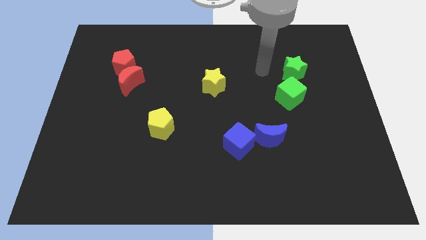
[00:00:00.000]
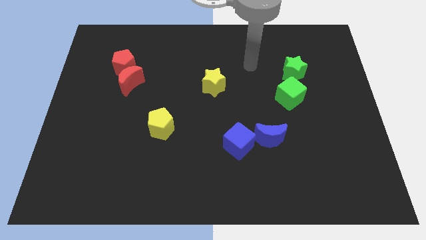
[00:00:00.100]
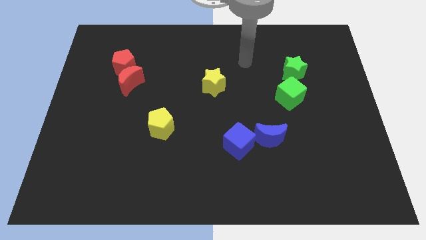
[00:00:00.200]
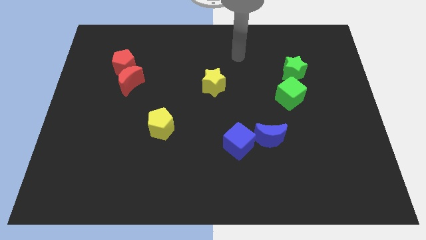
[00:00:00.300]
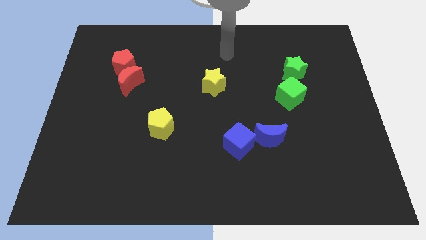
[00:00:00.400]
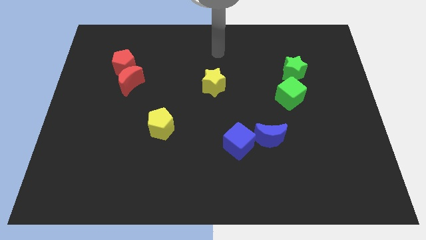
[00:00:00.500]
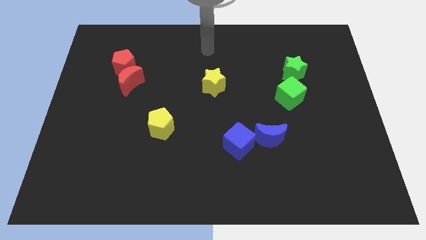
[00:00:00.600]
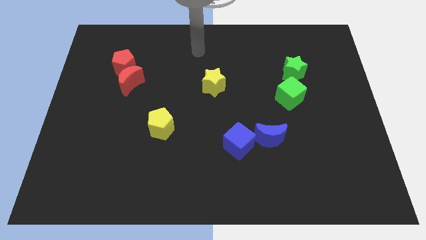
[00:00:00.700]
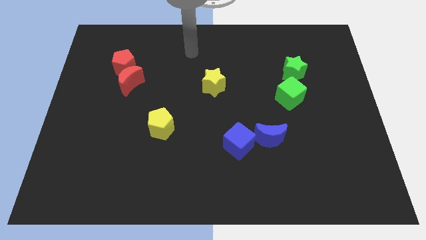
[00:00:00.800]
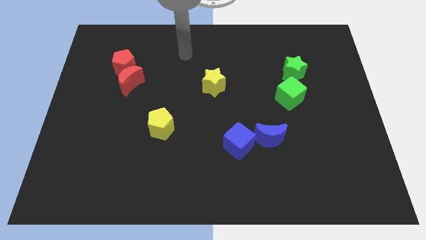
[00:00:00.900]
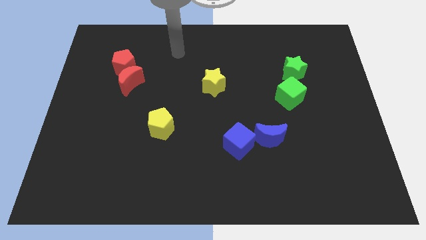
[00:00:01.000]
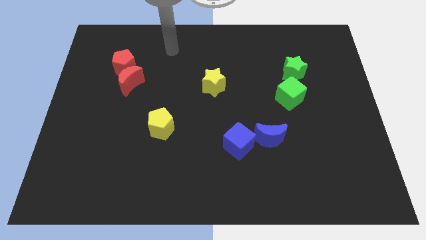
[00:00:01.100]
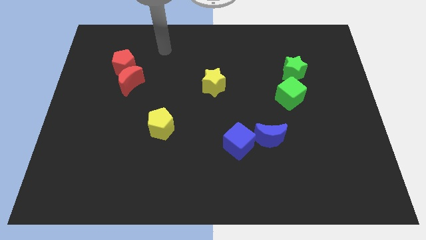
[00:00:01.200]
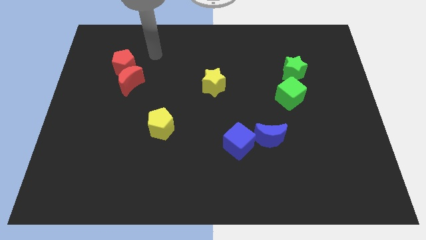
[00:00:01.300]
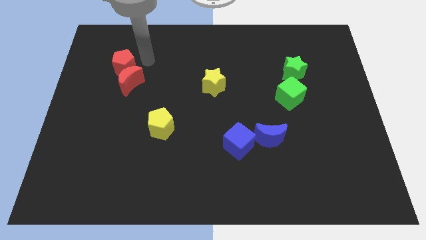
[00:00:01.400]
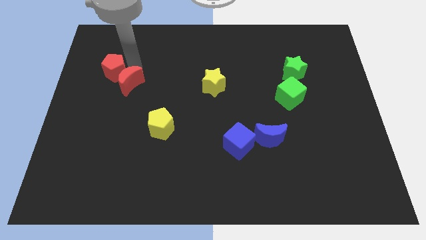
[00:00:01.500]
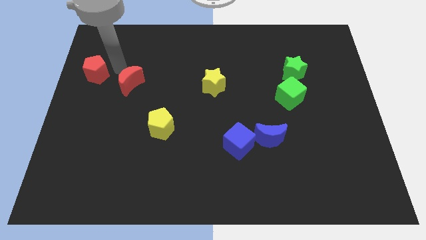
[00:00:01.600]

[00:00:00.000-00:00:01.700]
separate the red moon from the red pentagon

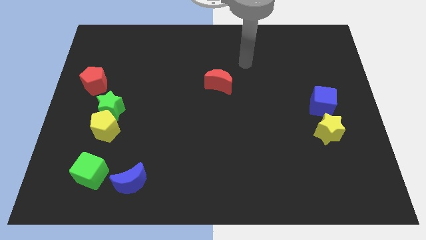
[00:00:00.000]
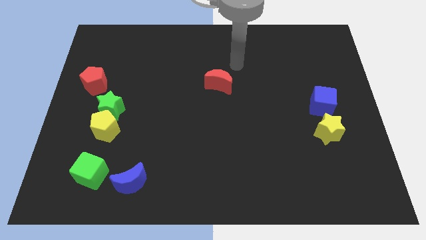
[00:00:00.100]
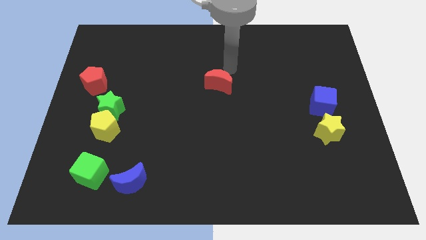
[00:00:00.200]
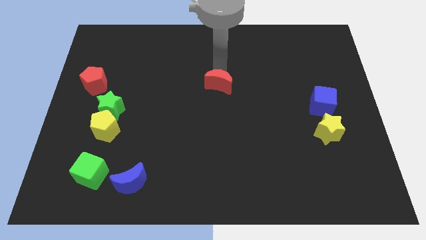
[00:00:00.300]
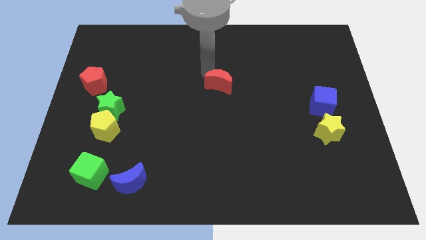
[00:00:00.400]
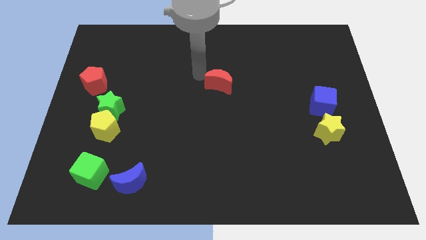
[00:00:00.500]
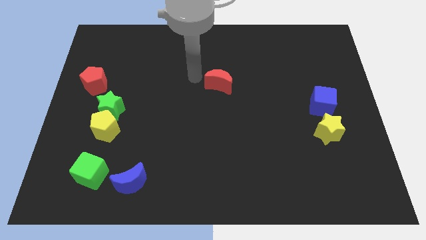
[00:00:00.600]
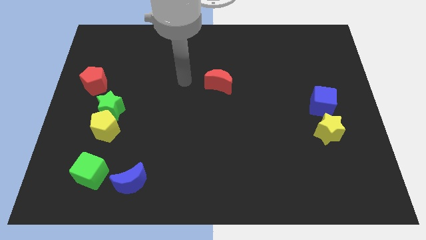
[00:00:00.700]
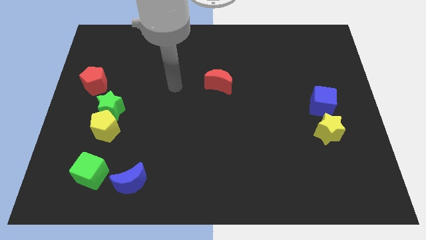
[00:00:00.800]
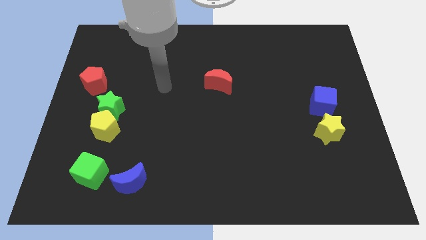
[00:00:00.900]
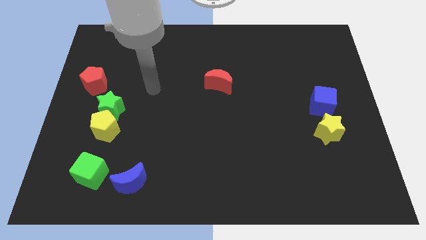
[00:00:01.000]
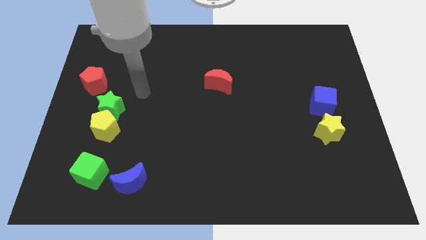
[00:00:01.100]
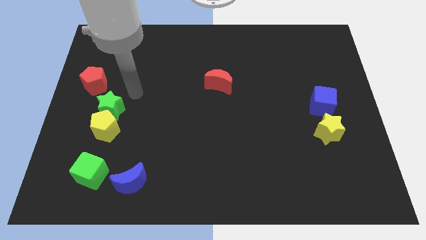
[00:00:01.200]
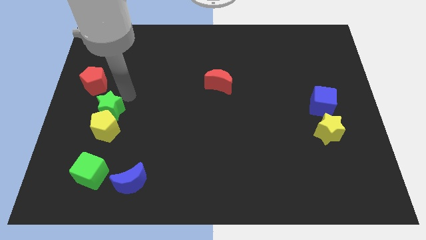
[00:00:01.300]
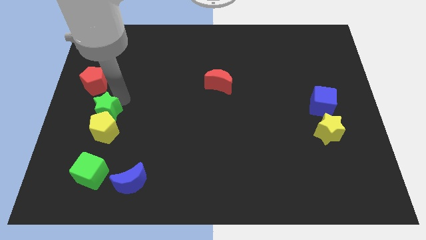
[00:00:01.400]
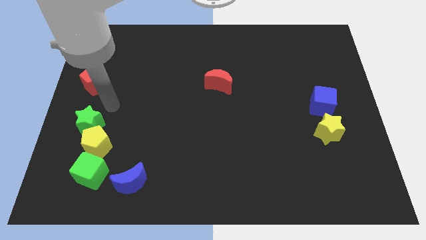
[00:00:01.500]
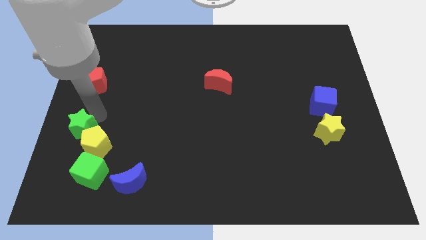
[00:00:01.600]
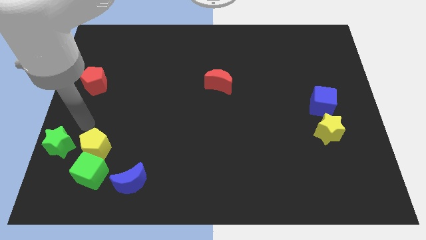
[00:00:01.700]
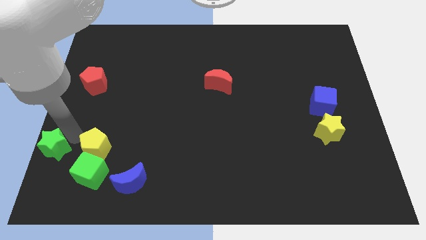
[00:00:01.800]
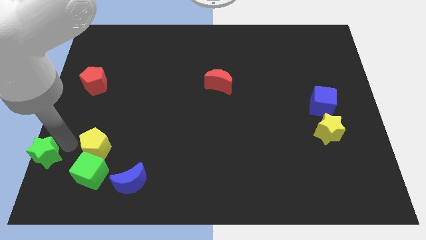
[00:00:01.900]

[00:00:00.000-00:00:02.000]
pull the yellow pentagon apart from the green star

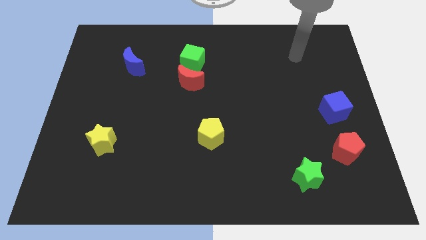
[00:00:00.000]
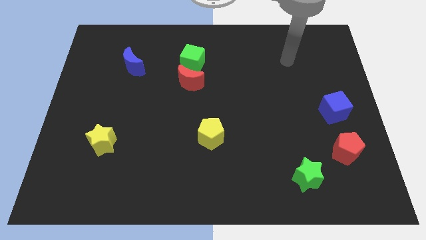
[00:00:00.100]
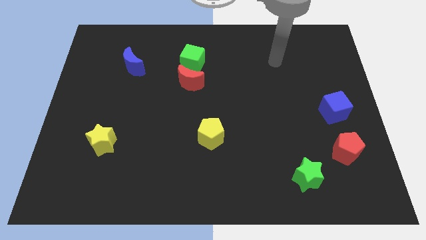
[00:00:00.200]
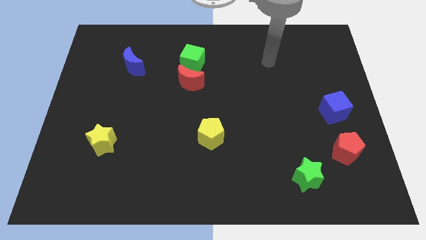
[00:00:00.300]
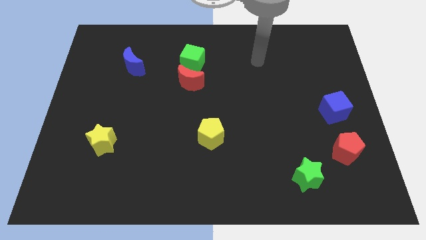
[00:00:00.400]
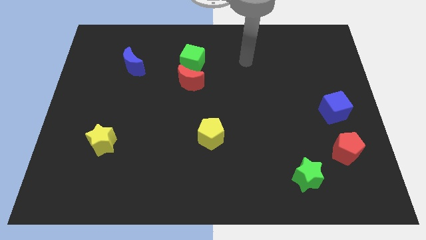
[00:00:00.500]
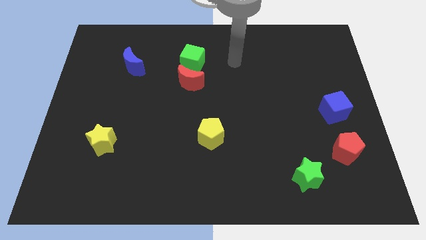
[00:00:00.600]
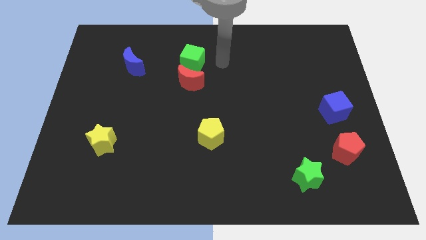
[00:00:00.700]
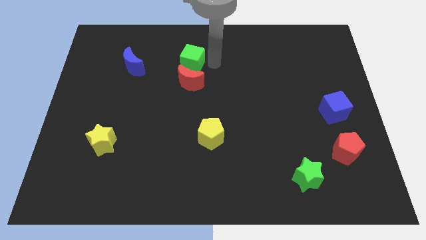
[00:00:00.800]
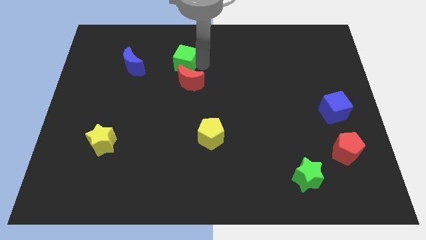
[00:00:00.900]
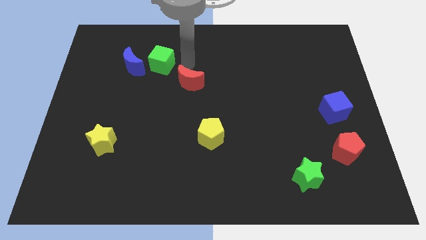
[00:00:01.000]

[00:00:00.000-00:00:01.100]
separate the red moon from the green cube

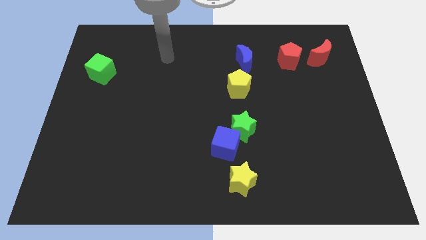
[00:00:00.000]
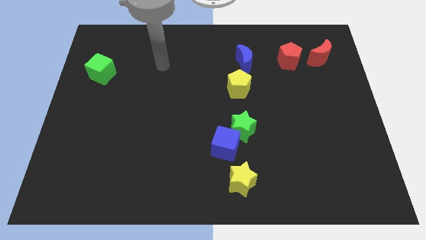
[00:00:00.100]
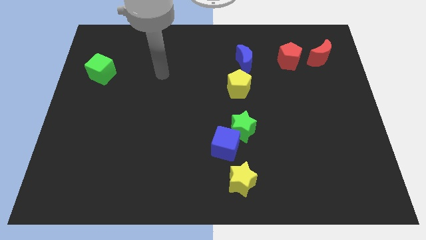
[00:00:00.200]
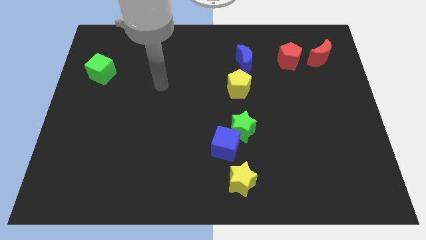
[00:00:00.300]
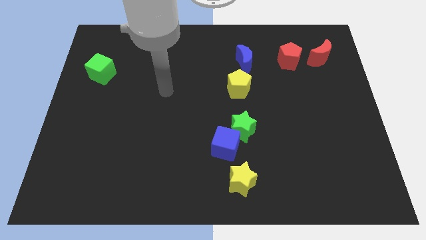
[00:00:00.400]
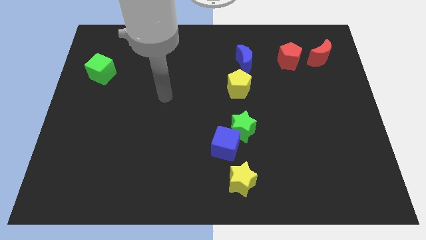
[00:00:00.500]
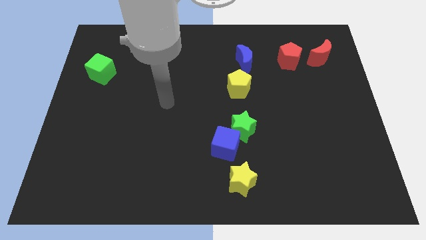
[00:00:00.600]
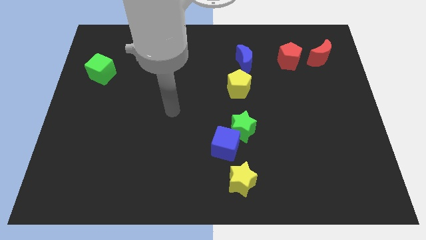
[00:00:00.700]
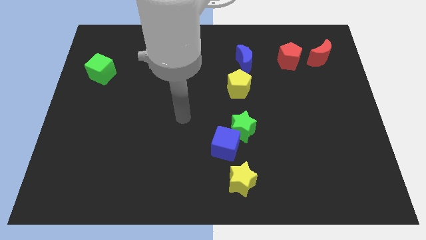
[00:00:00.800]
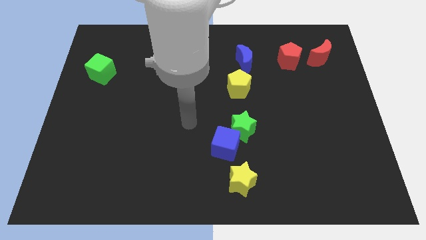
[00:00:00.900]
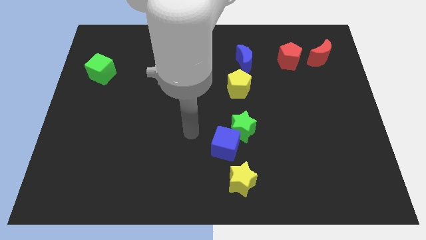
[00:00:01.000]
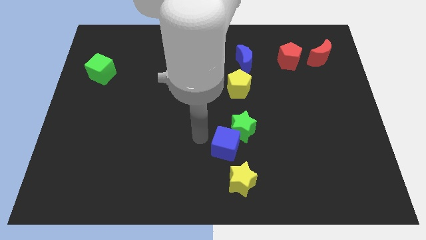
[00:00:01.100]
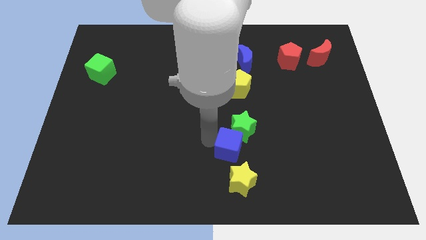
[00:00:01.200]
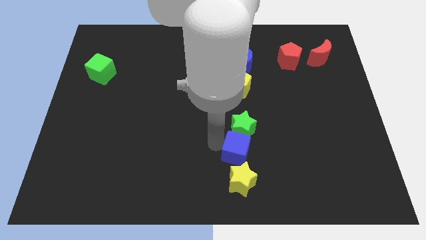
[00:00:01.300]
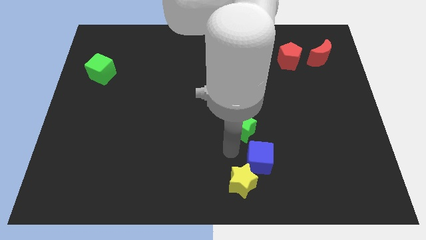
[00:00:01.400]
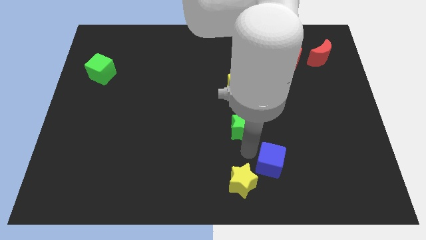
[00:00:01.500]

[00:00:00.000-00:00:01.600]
separate the green star from the blue cube

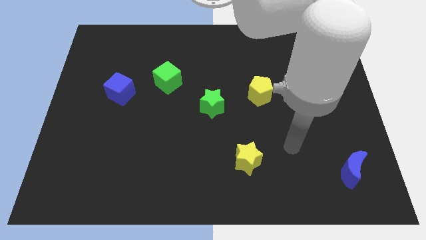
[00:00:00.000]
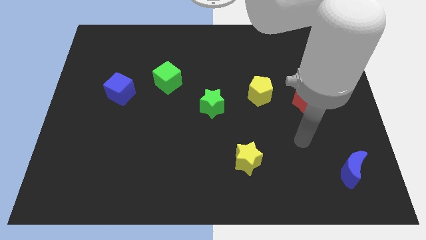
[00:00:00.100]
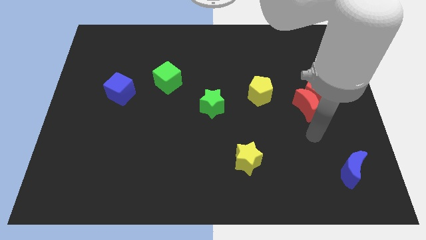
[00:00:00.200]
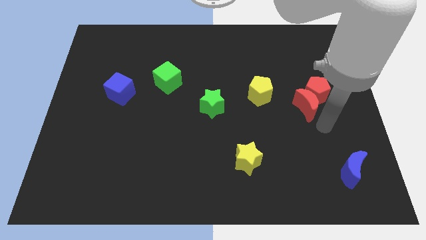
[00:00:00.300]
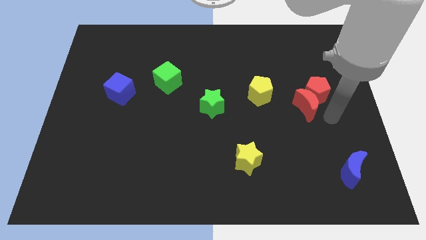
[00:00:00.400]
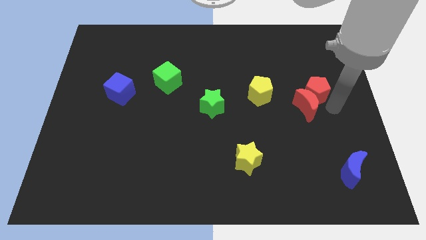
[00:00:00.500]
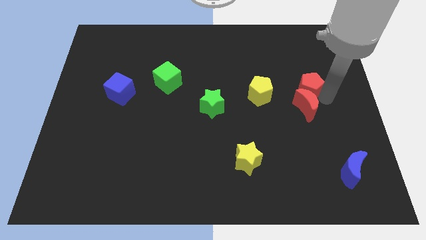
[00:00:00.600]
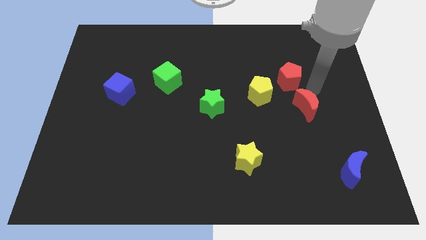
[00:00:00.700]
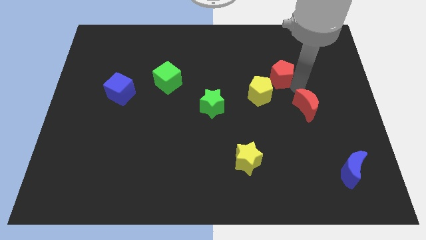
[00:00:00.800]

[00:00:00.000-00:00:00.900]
move the red moon away from the red pentagon

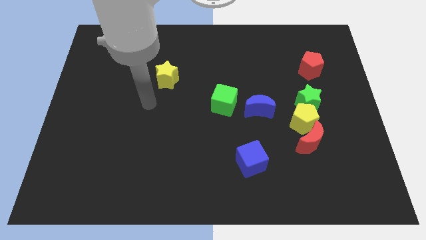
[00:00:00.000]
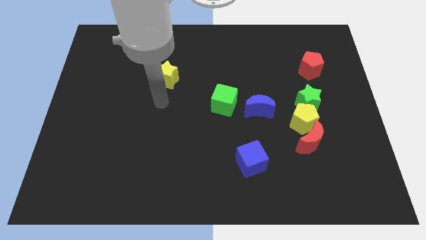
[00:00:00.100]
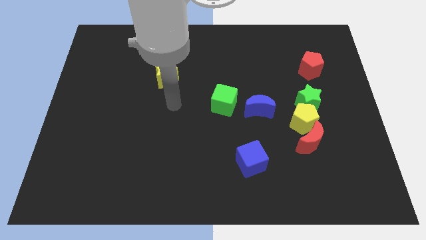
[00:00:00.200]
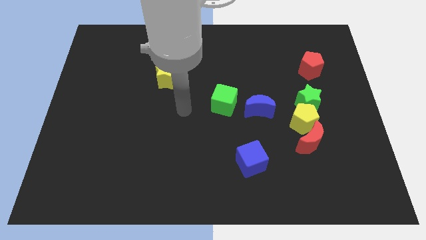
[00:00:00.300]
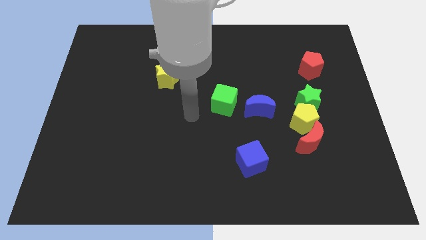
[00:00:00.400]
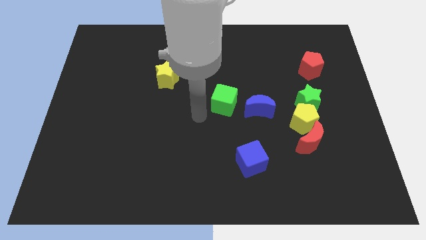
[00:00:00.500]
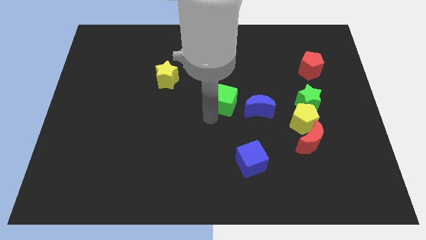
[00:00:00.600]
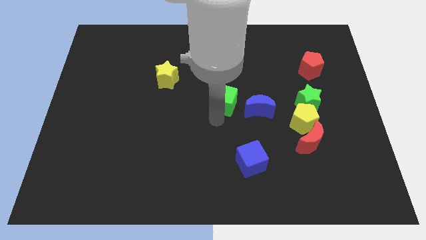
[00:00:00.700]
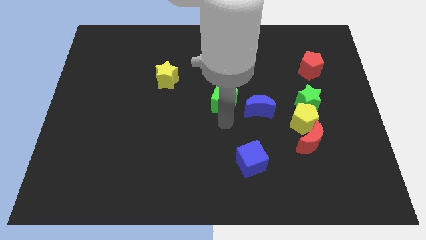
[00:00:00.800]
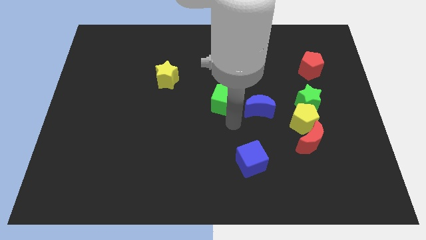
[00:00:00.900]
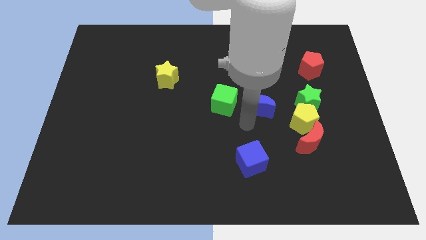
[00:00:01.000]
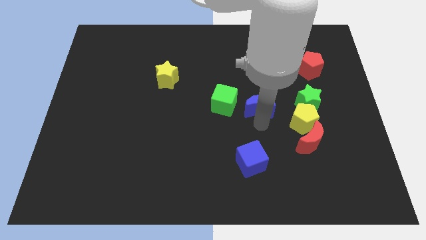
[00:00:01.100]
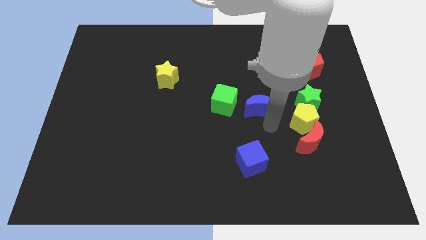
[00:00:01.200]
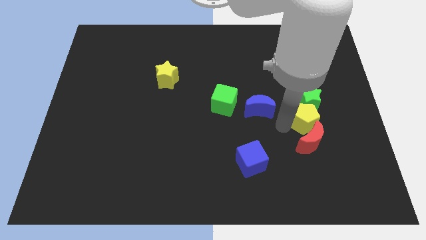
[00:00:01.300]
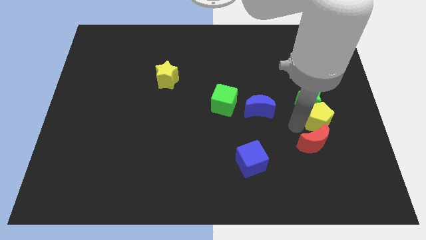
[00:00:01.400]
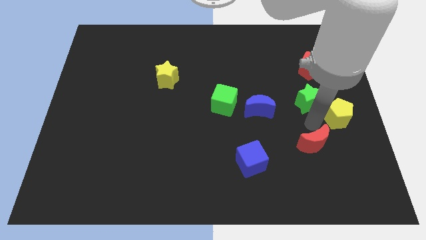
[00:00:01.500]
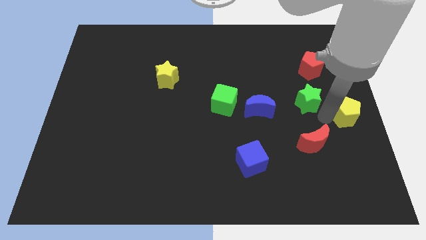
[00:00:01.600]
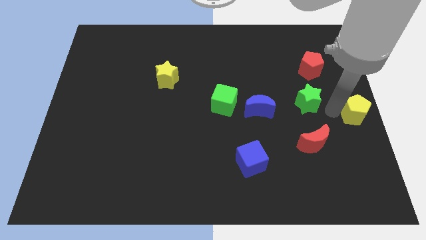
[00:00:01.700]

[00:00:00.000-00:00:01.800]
pull the green star apart from the yellow pentagon

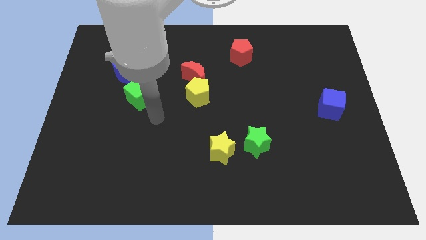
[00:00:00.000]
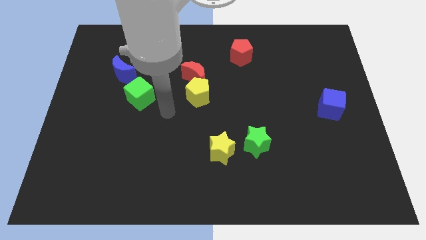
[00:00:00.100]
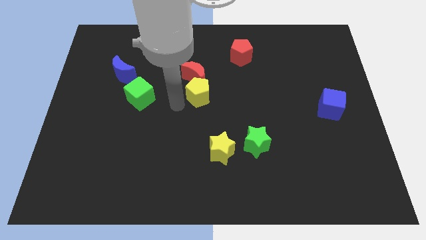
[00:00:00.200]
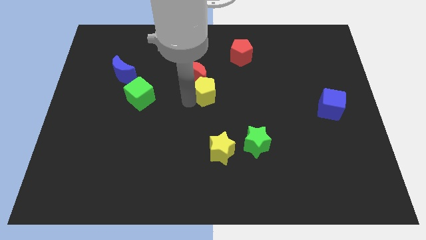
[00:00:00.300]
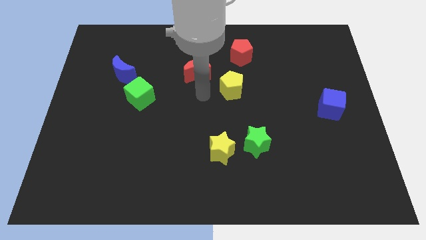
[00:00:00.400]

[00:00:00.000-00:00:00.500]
separate the red moon from the yellow pentagon
